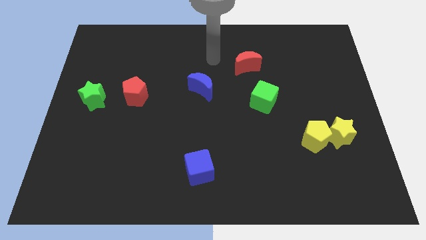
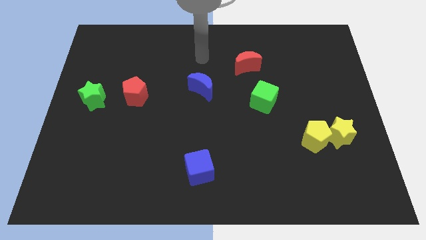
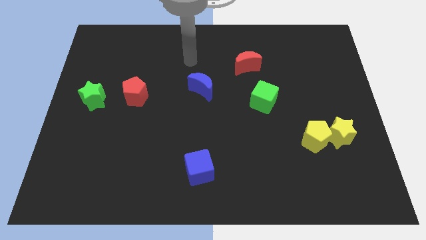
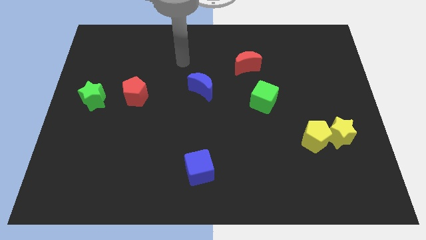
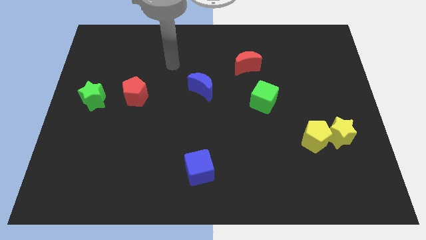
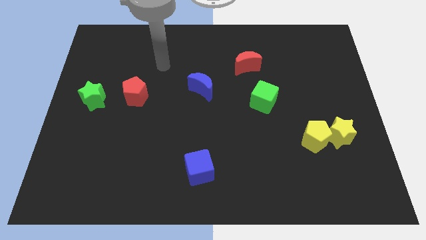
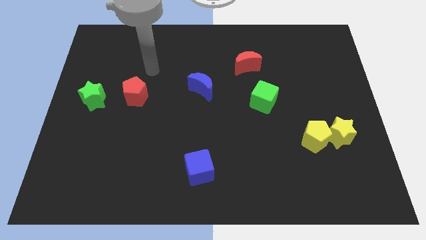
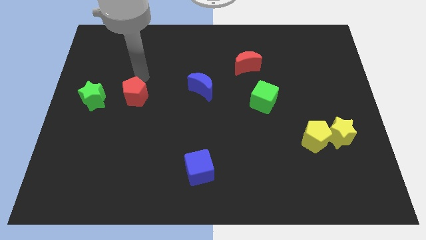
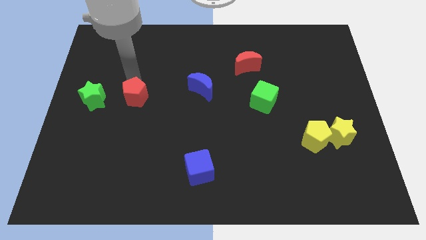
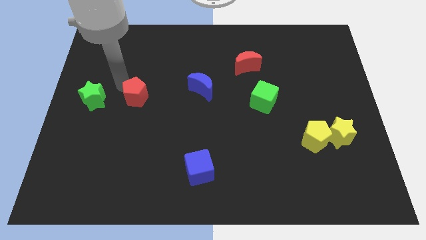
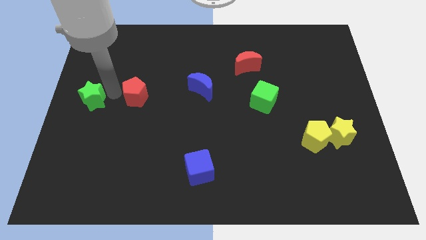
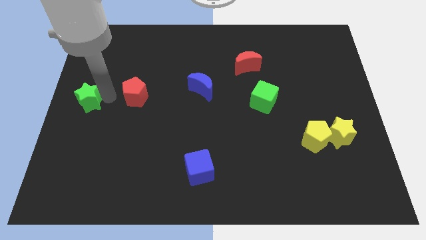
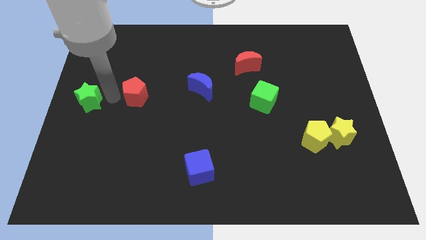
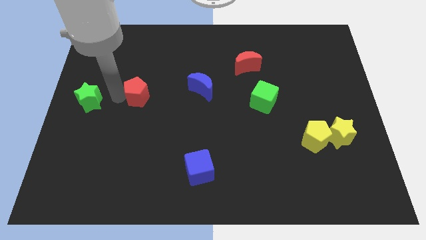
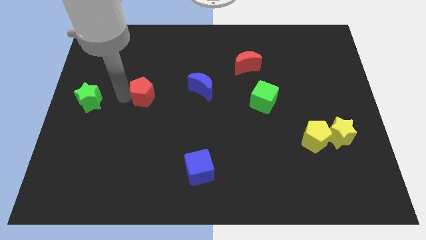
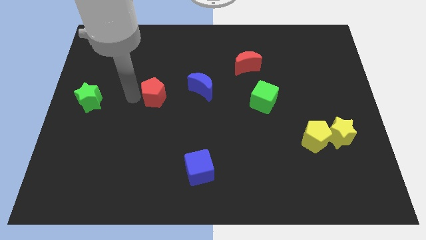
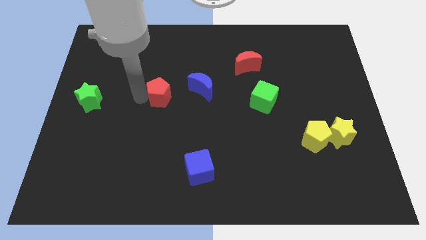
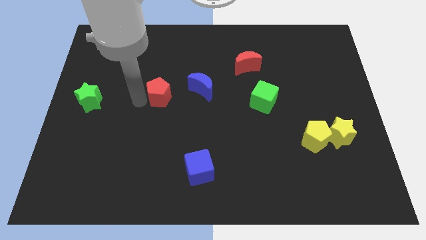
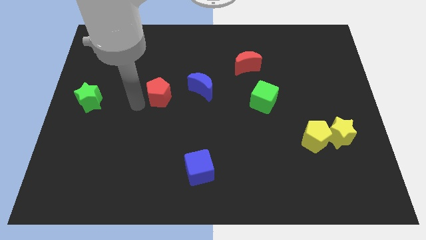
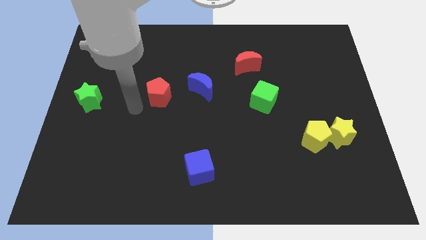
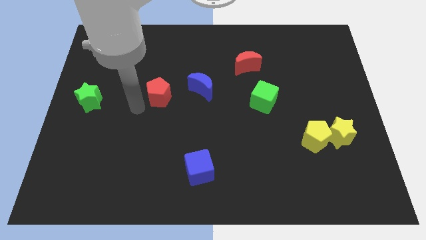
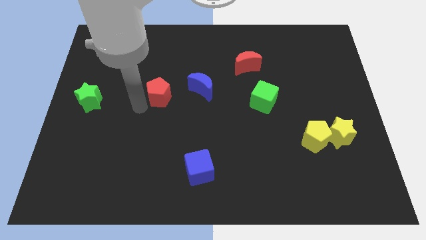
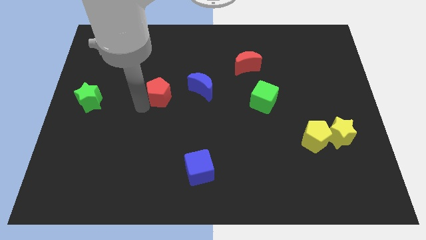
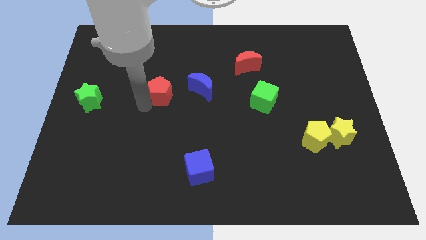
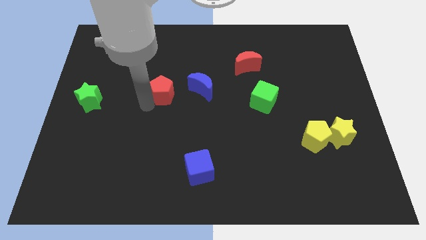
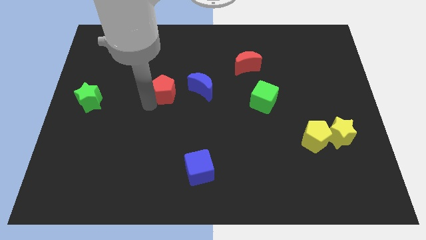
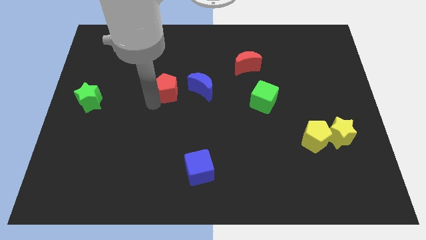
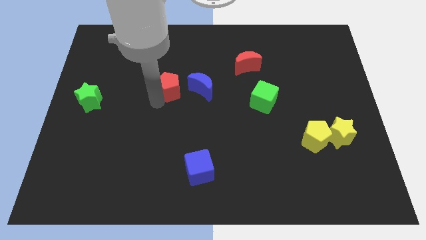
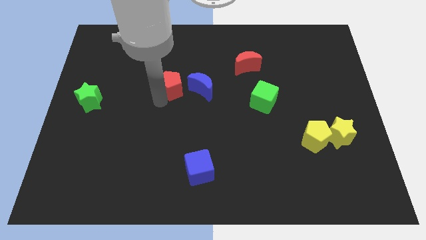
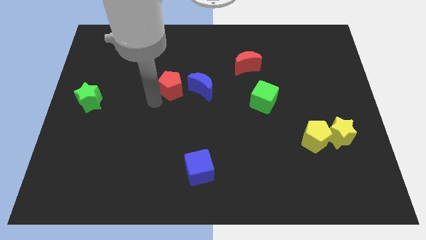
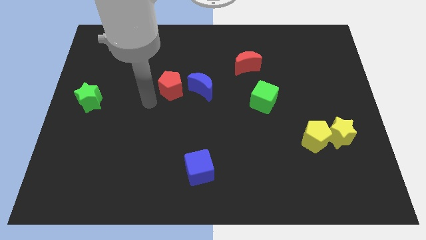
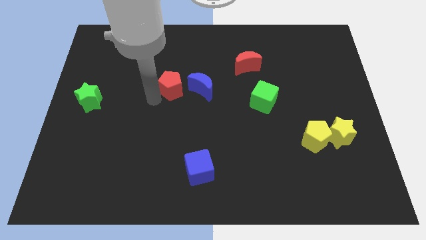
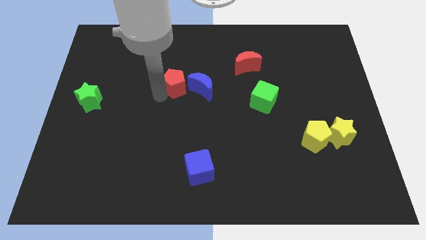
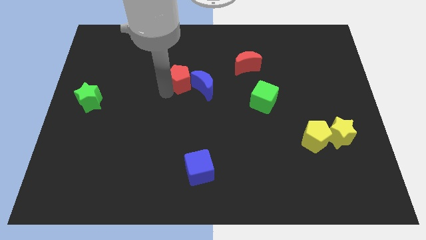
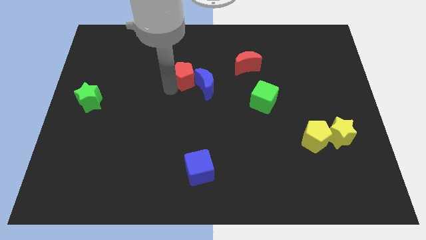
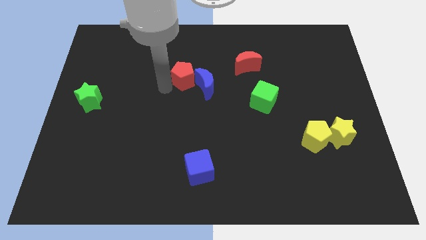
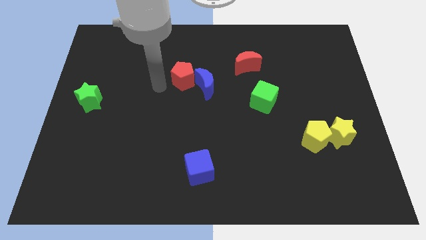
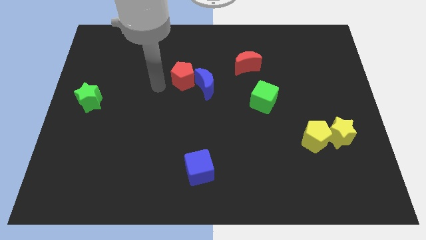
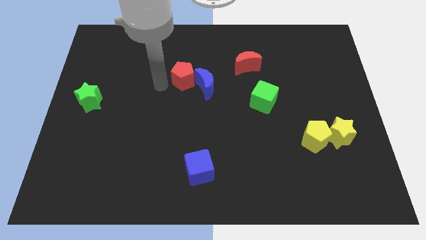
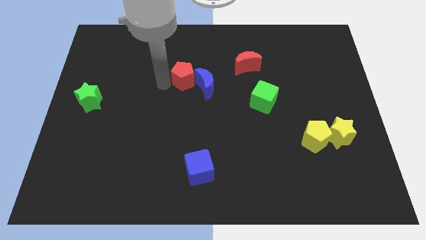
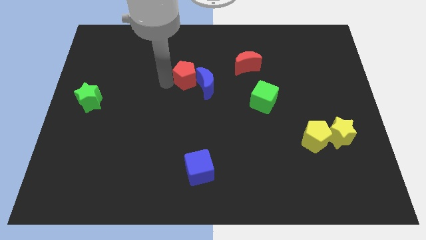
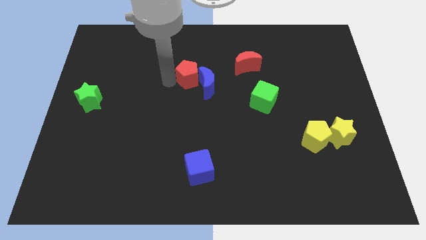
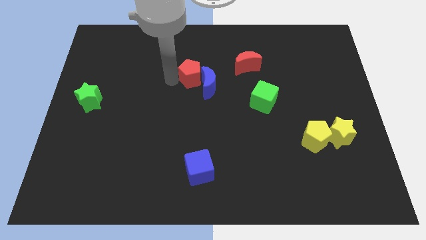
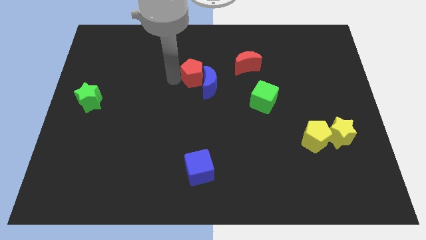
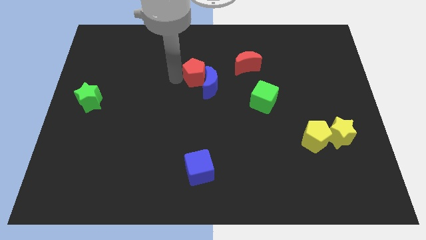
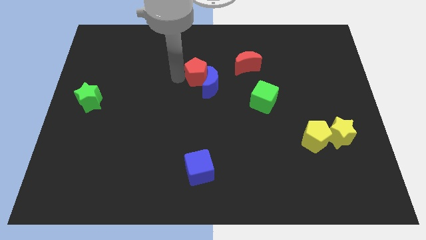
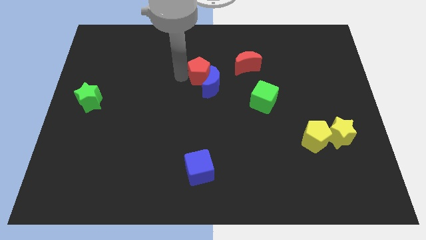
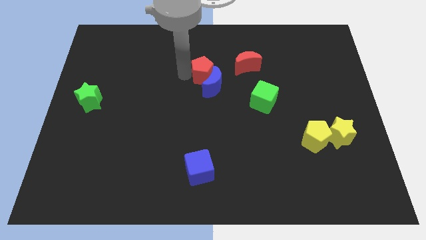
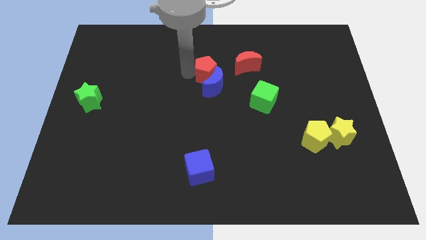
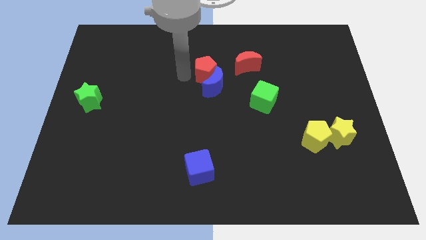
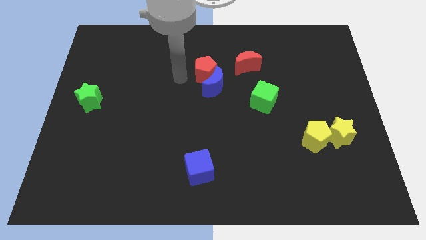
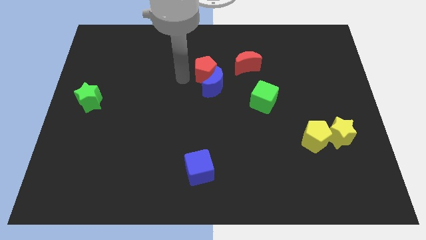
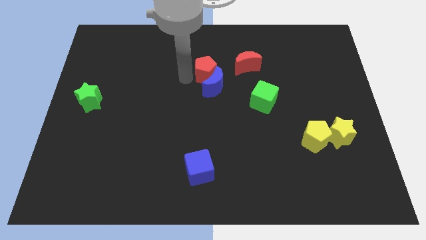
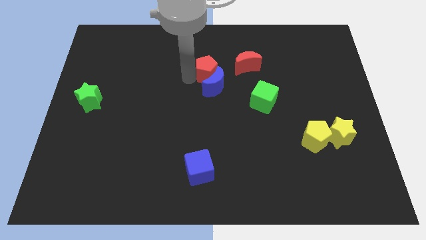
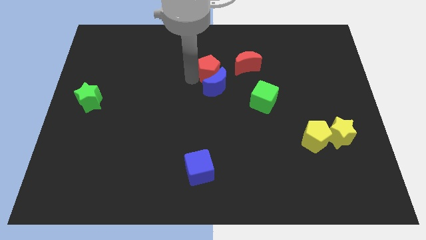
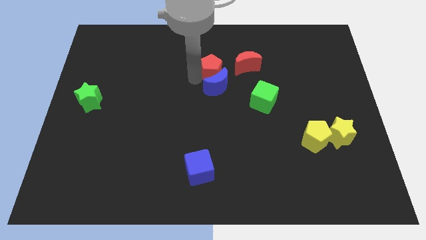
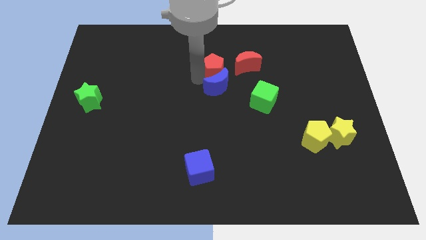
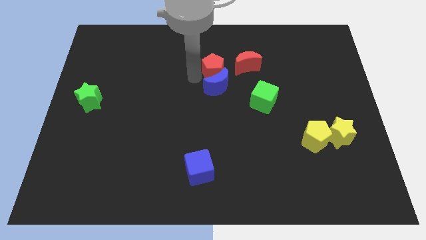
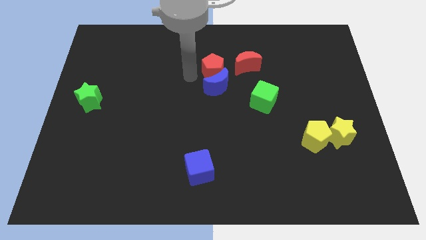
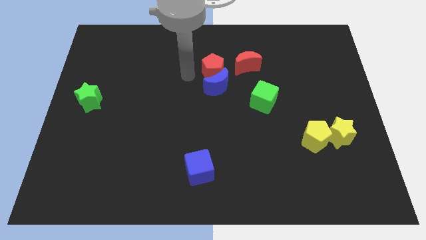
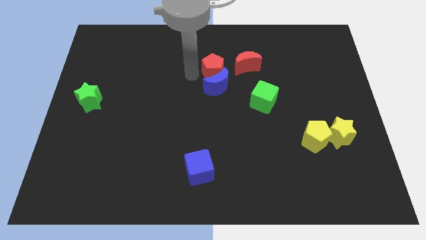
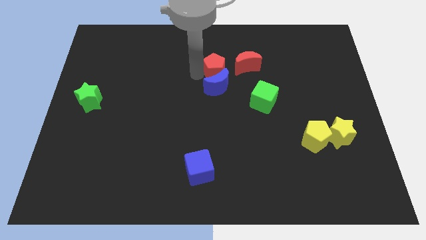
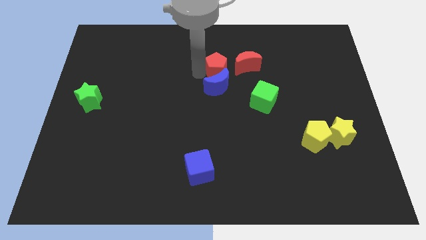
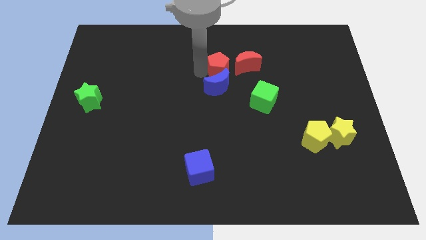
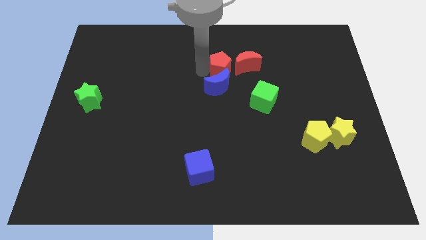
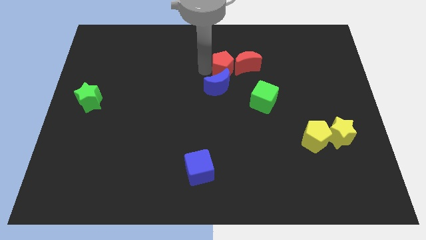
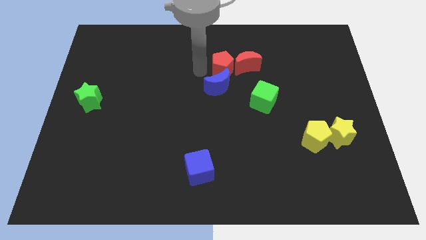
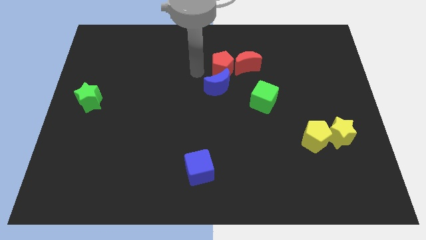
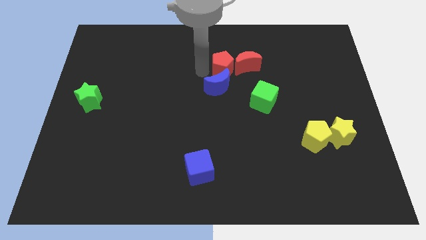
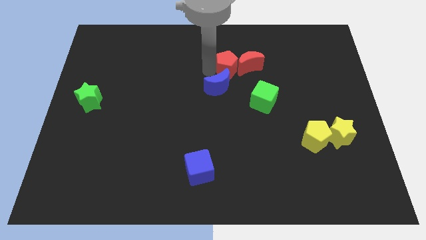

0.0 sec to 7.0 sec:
slide the red pentagon close to the red moon
